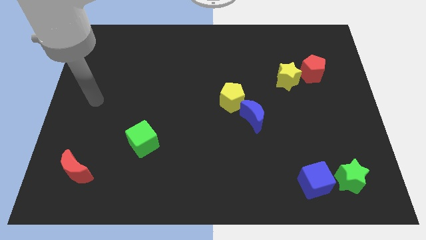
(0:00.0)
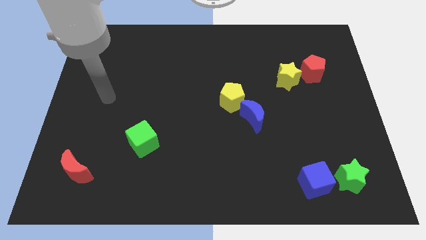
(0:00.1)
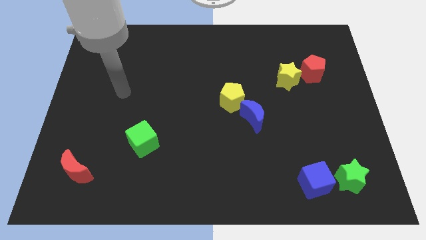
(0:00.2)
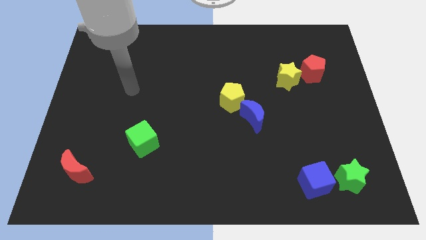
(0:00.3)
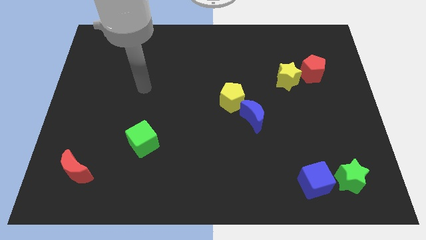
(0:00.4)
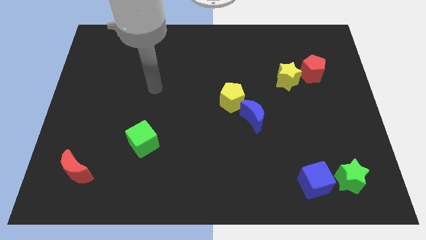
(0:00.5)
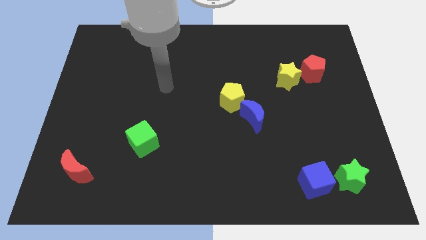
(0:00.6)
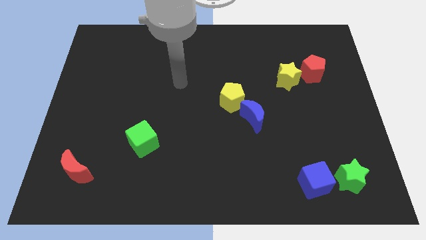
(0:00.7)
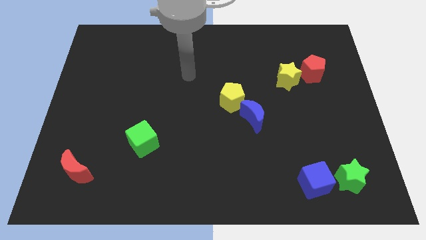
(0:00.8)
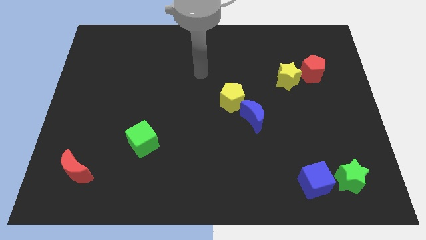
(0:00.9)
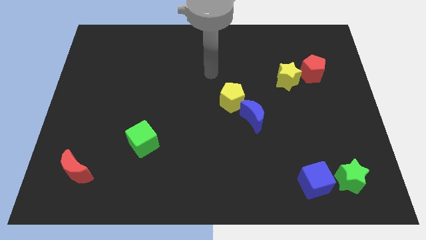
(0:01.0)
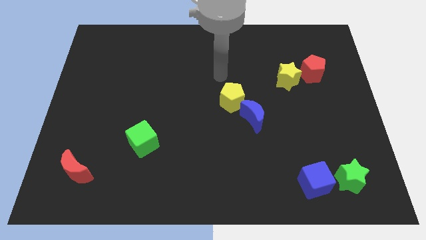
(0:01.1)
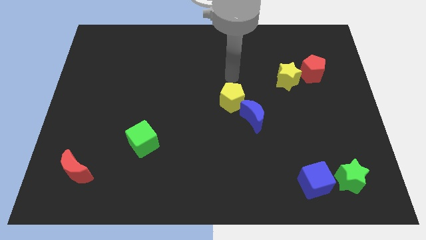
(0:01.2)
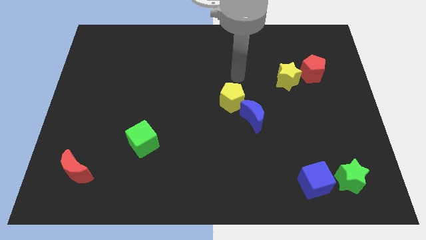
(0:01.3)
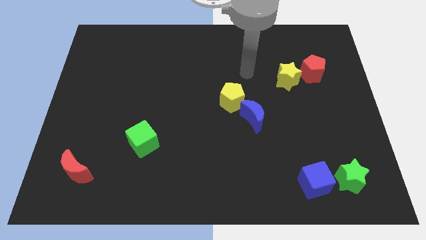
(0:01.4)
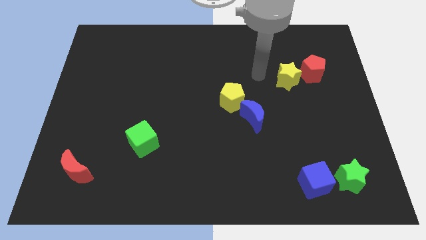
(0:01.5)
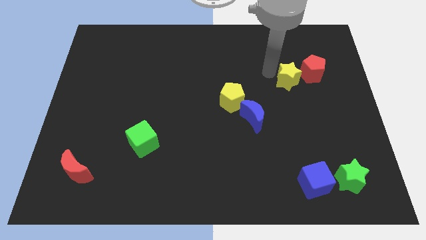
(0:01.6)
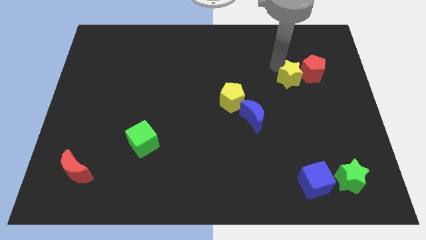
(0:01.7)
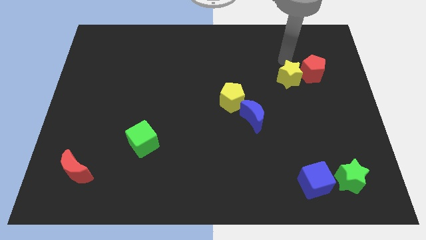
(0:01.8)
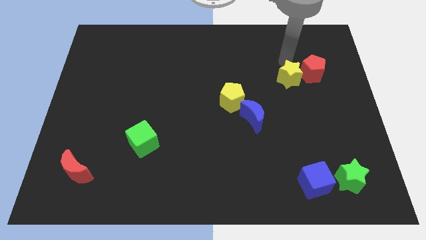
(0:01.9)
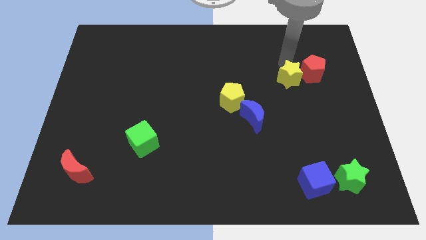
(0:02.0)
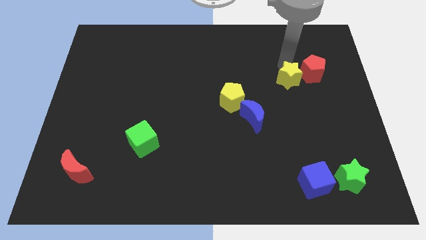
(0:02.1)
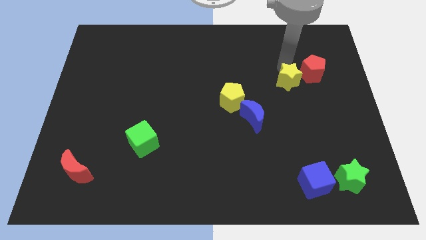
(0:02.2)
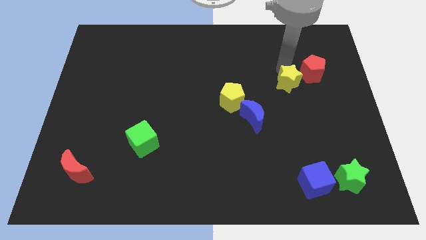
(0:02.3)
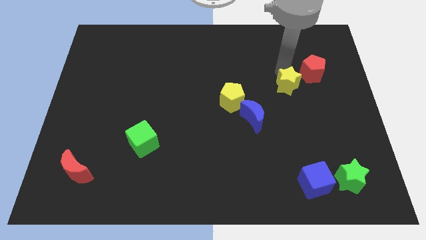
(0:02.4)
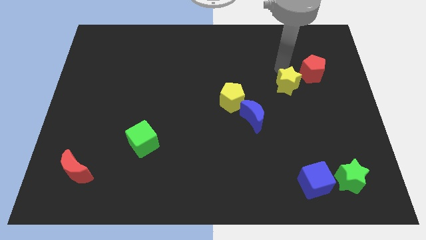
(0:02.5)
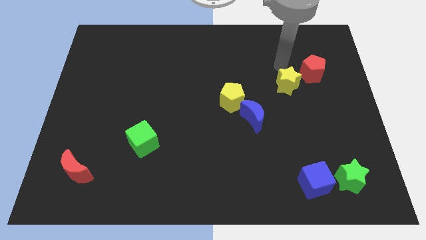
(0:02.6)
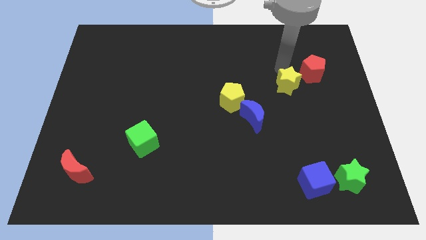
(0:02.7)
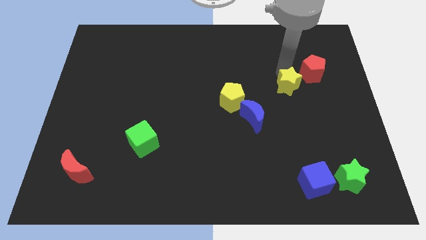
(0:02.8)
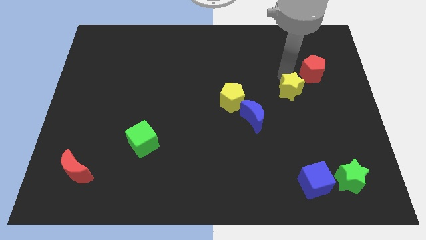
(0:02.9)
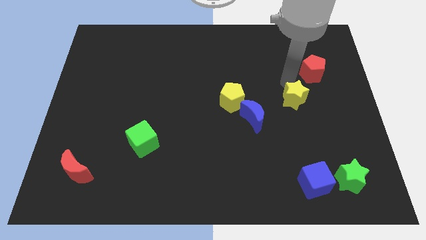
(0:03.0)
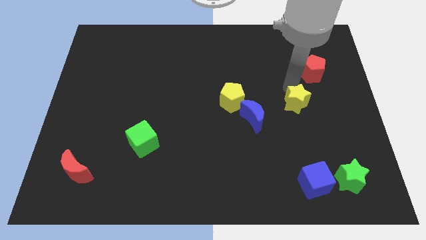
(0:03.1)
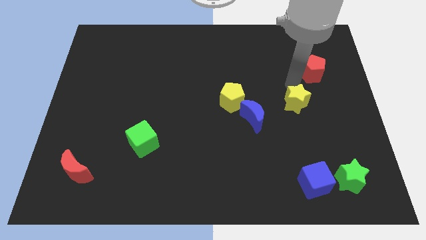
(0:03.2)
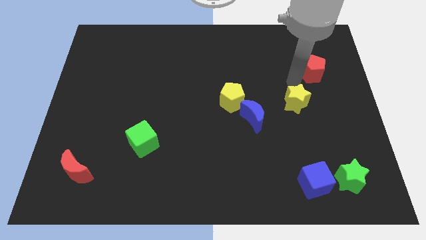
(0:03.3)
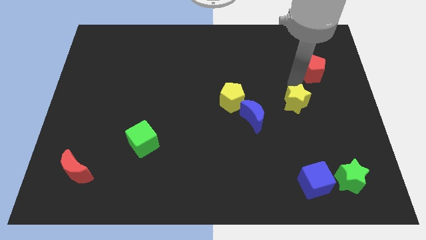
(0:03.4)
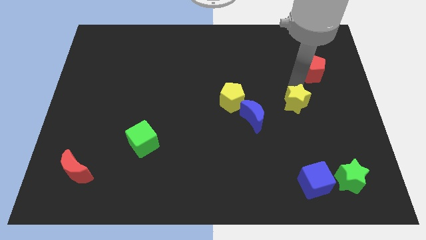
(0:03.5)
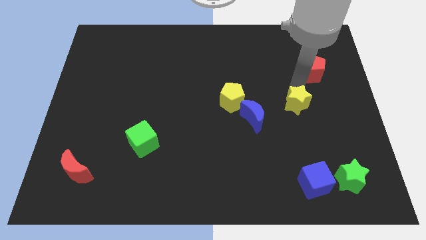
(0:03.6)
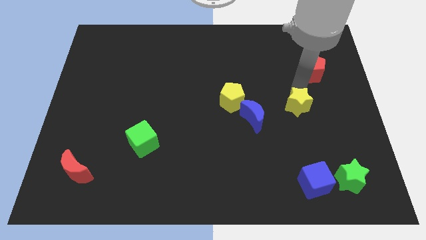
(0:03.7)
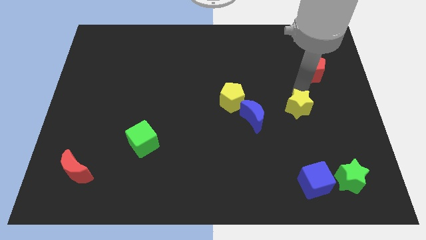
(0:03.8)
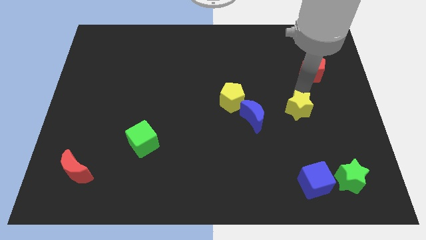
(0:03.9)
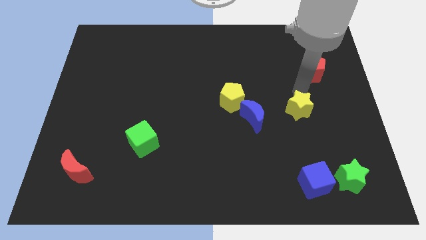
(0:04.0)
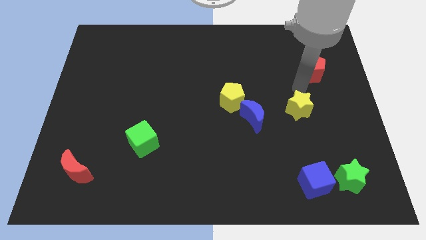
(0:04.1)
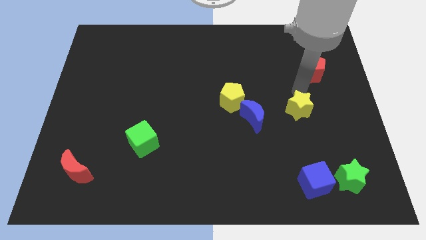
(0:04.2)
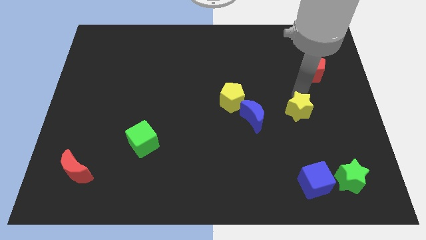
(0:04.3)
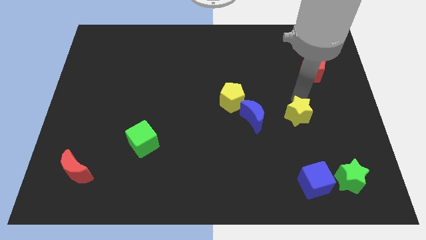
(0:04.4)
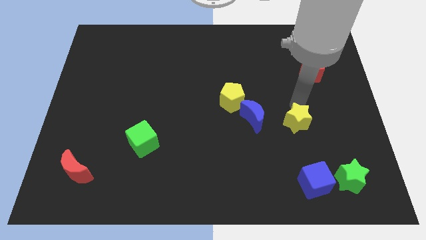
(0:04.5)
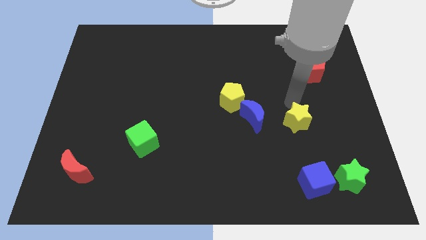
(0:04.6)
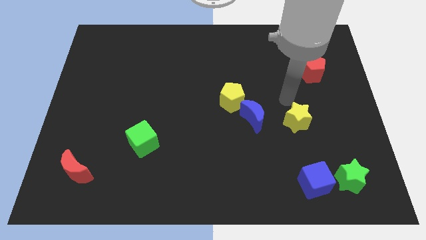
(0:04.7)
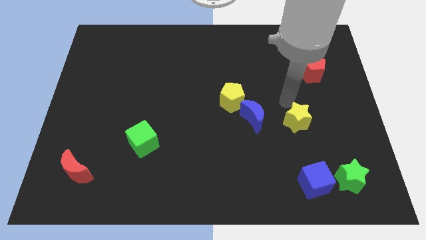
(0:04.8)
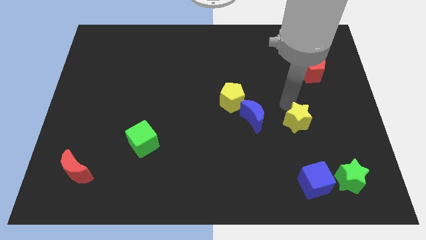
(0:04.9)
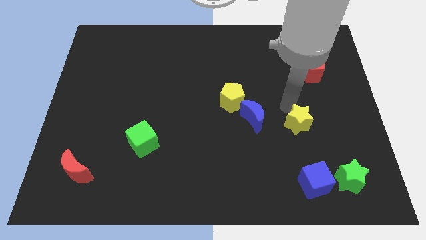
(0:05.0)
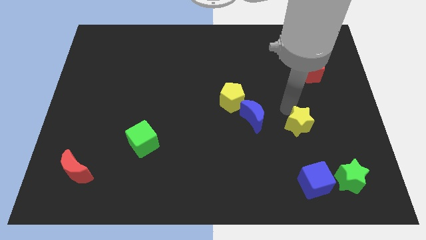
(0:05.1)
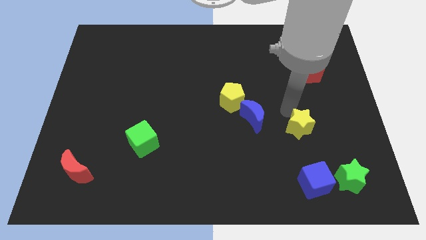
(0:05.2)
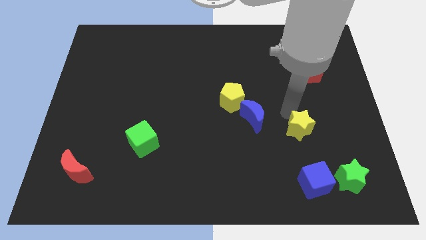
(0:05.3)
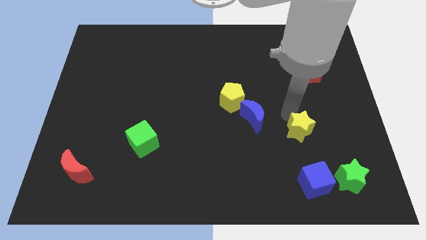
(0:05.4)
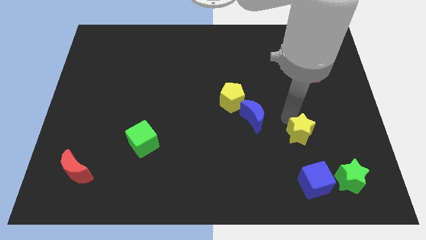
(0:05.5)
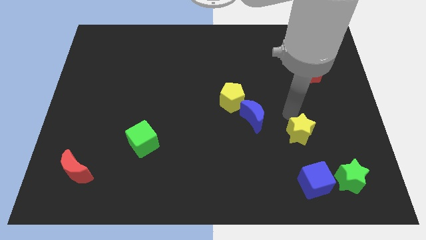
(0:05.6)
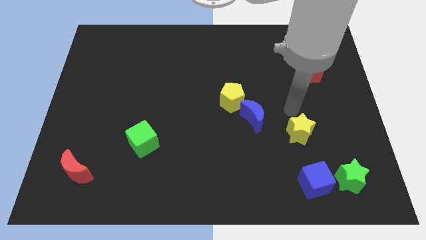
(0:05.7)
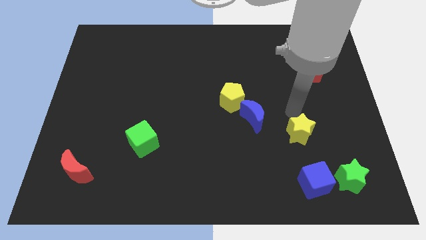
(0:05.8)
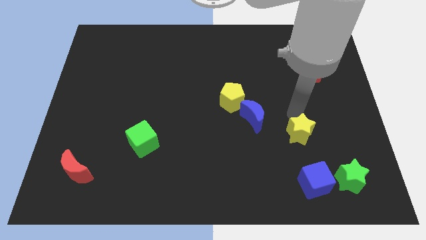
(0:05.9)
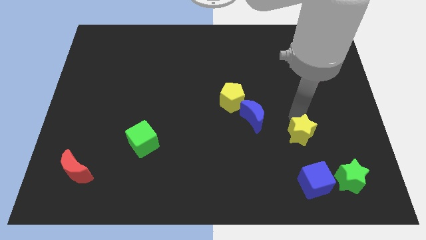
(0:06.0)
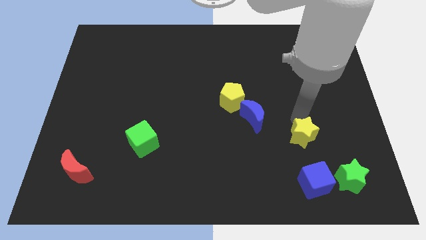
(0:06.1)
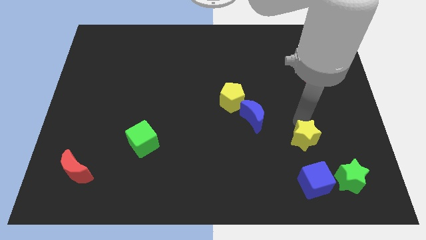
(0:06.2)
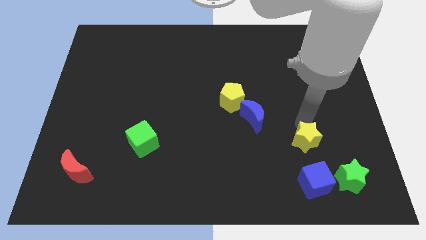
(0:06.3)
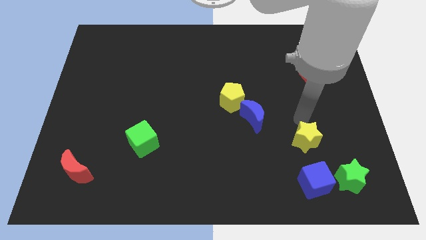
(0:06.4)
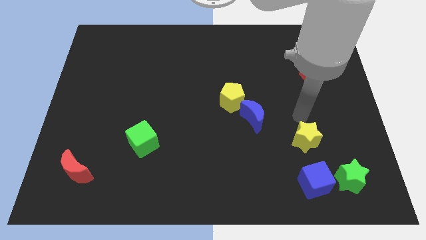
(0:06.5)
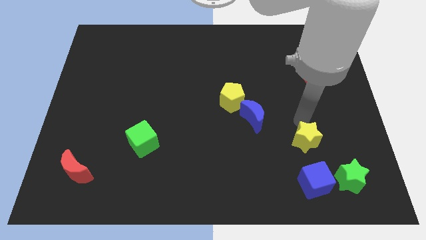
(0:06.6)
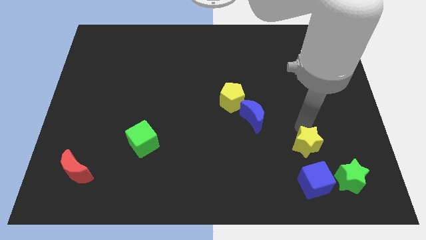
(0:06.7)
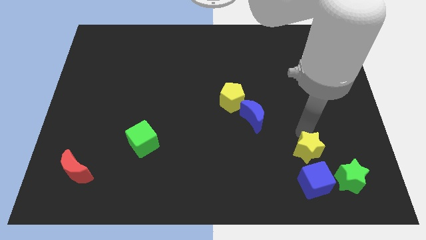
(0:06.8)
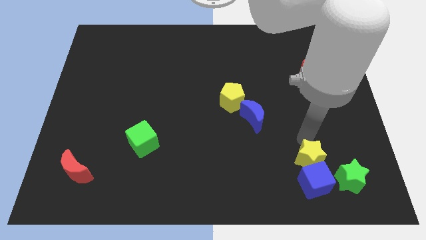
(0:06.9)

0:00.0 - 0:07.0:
put the yellow star close to the blue cube

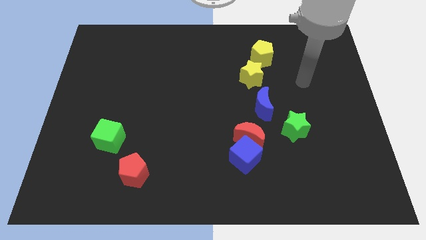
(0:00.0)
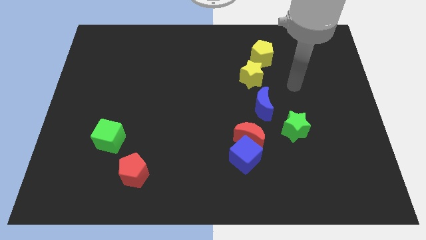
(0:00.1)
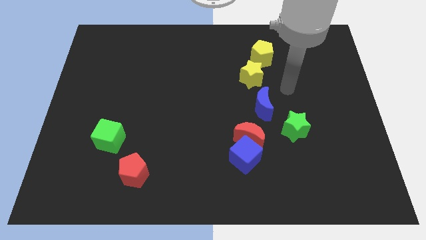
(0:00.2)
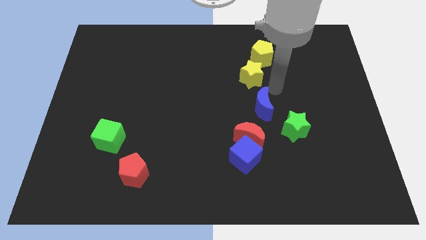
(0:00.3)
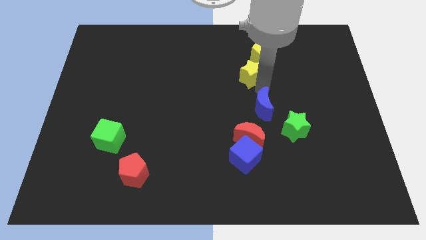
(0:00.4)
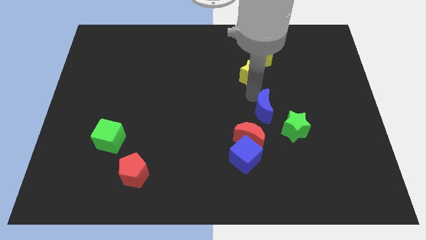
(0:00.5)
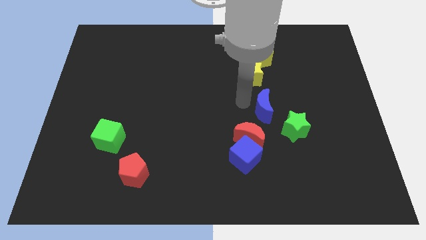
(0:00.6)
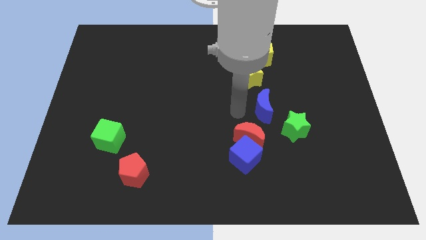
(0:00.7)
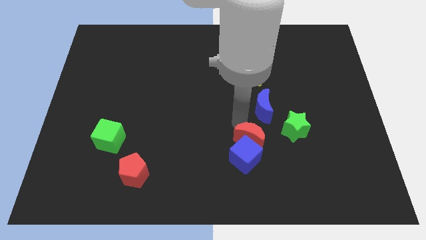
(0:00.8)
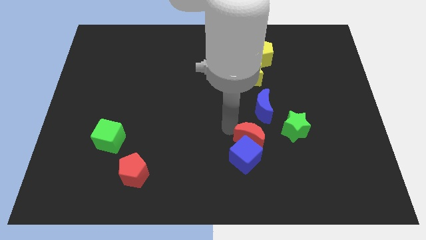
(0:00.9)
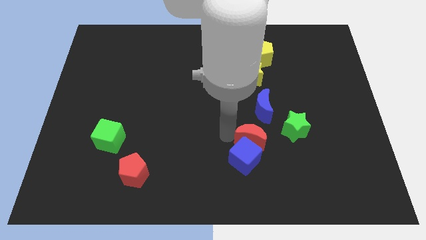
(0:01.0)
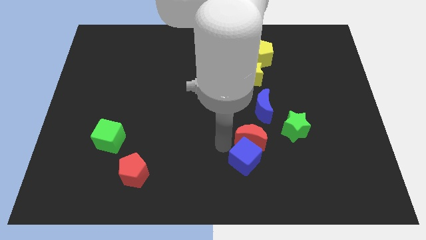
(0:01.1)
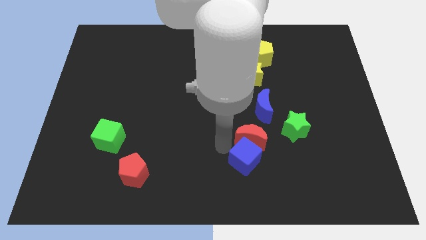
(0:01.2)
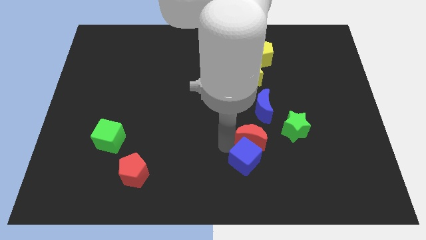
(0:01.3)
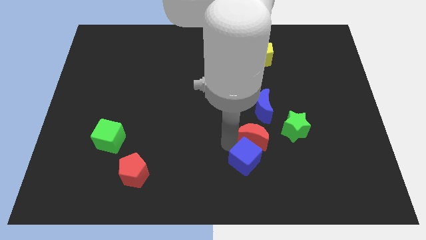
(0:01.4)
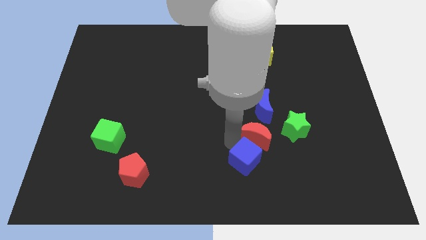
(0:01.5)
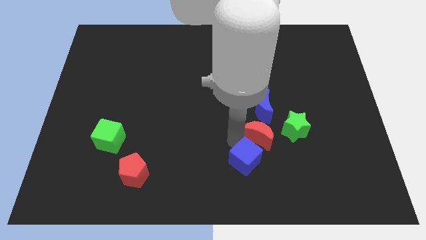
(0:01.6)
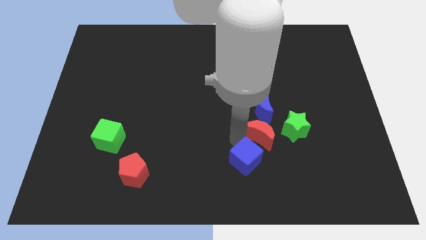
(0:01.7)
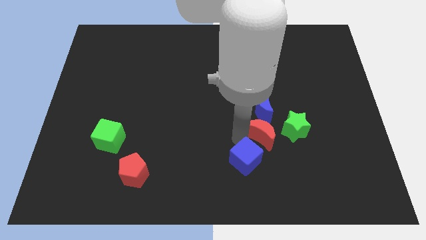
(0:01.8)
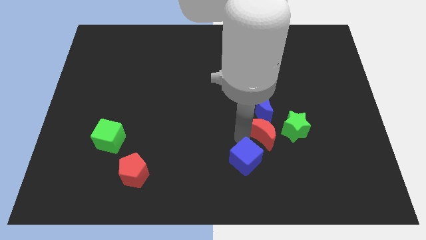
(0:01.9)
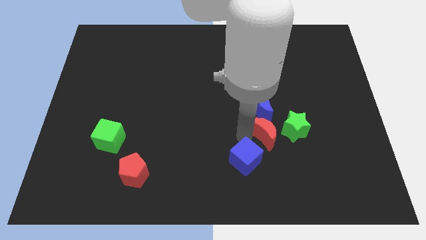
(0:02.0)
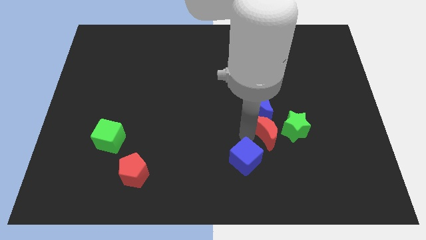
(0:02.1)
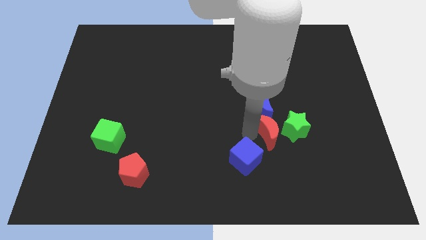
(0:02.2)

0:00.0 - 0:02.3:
put the red moon next to the green star
